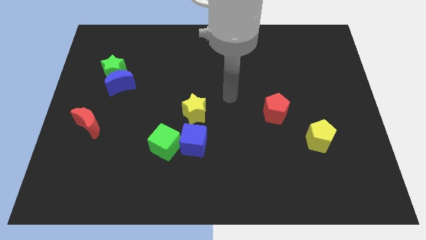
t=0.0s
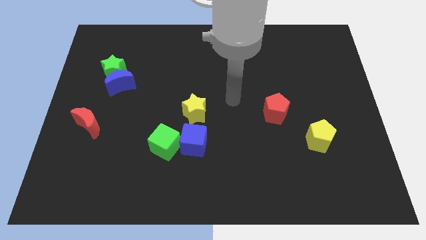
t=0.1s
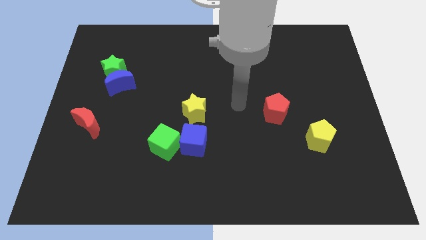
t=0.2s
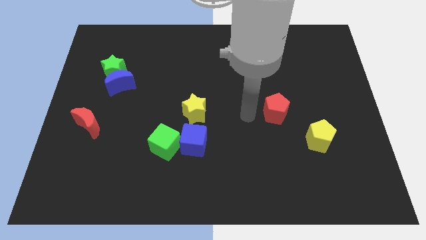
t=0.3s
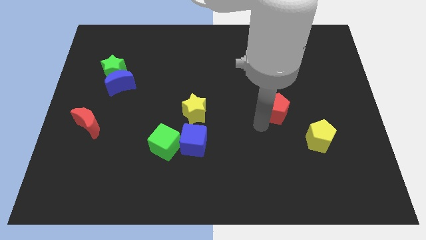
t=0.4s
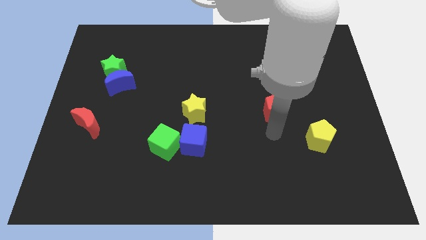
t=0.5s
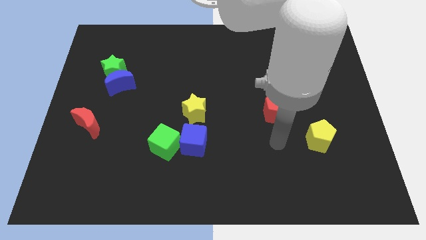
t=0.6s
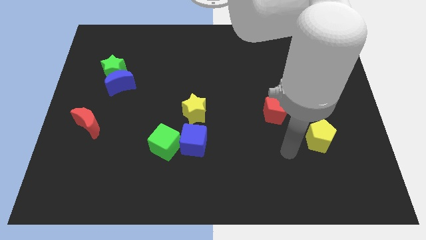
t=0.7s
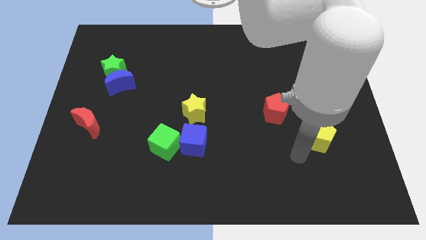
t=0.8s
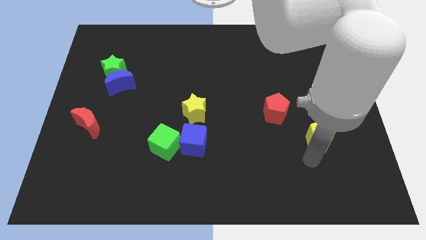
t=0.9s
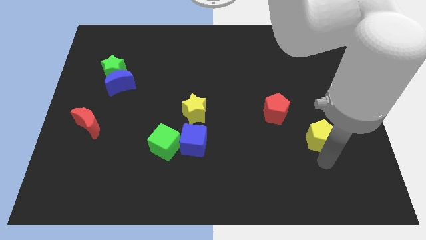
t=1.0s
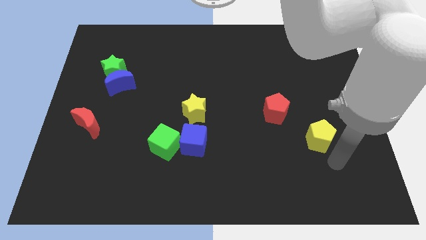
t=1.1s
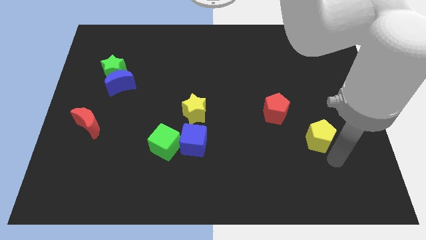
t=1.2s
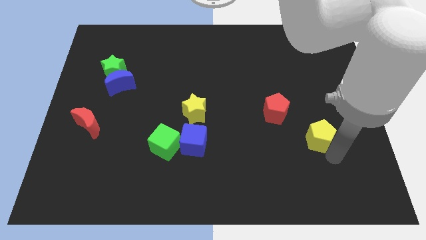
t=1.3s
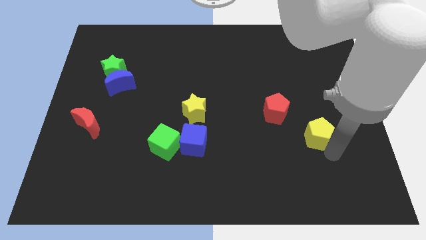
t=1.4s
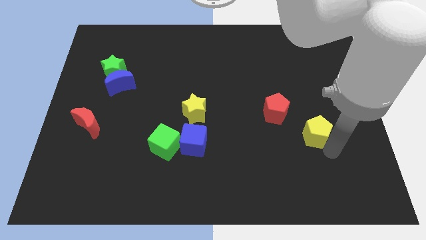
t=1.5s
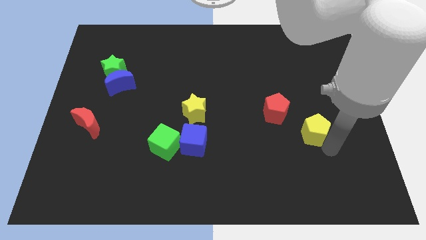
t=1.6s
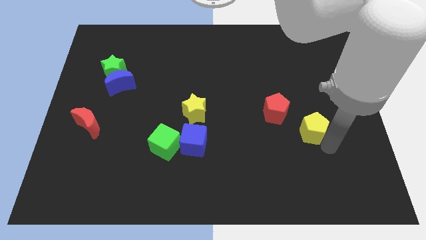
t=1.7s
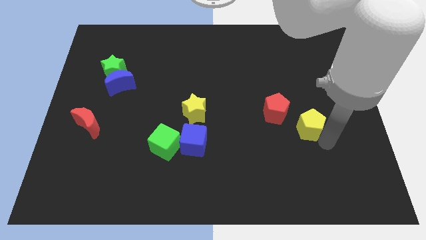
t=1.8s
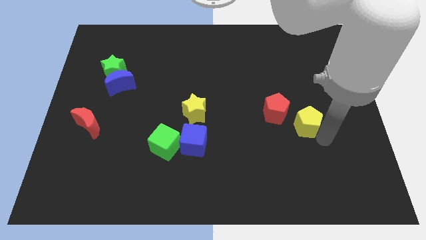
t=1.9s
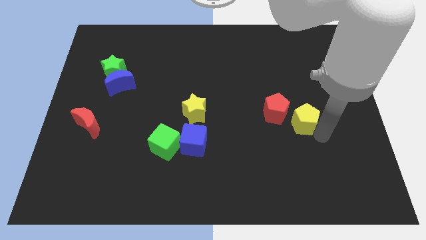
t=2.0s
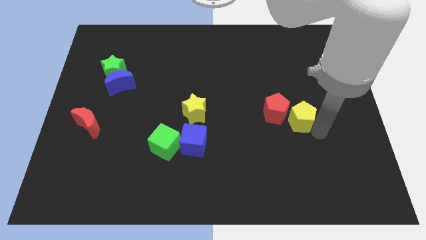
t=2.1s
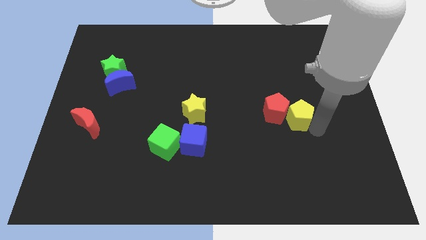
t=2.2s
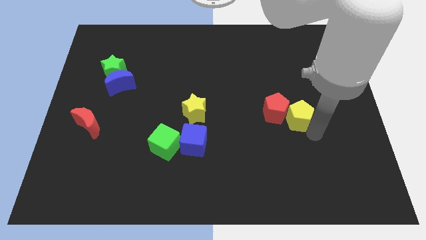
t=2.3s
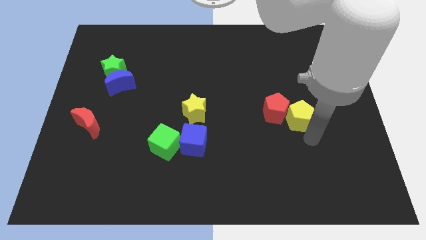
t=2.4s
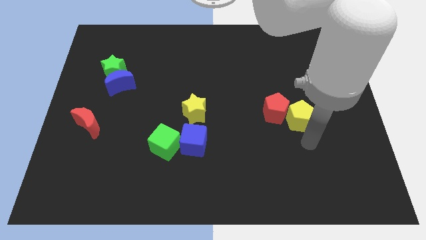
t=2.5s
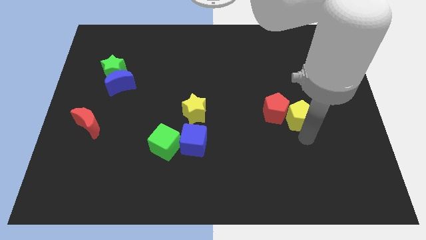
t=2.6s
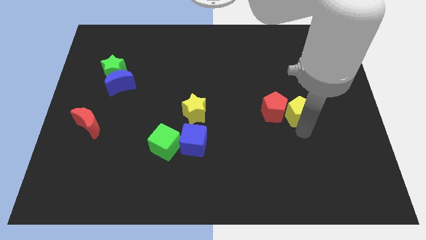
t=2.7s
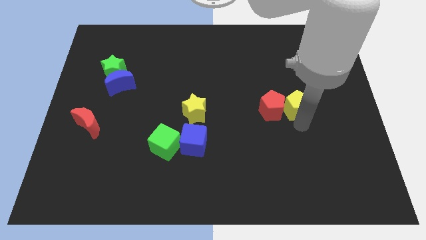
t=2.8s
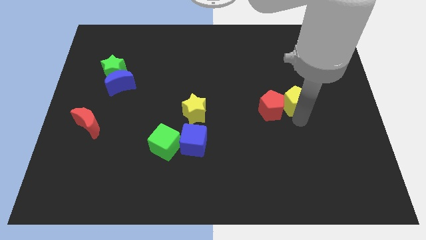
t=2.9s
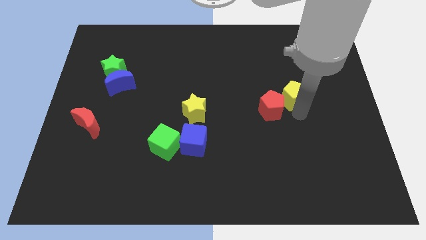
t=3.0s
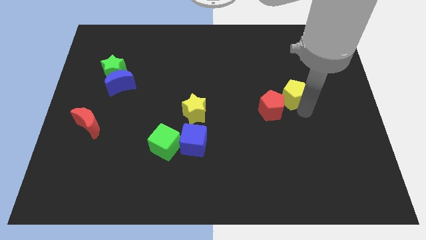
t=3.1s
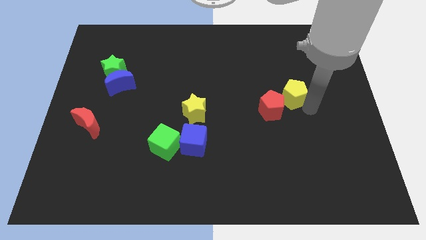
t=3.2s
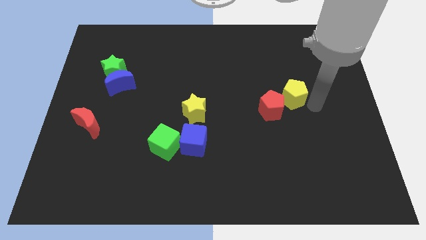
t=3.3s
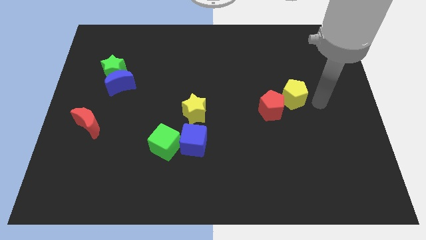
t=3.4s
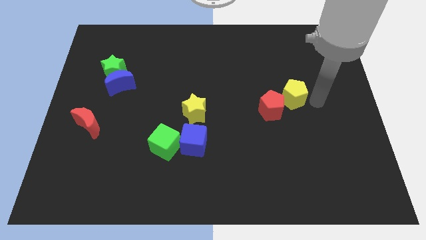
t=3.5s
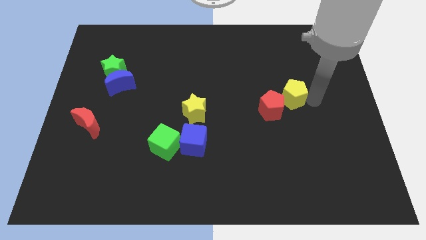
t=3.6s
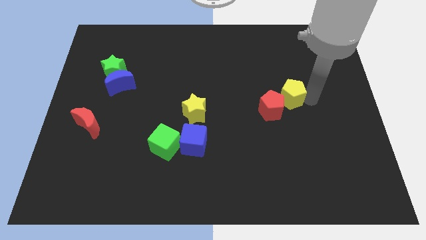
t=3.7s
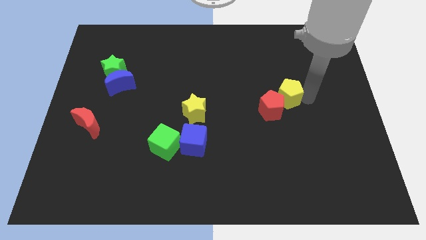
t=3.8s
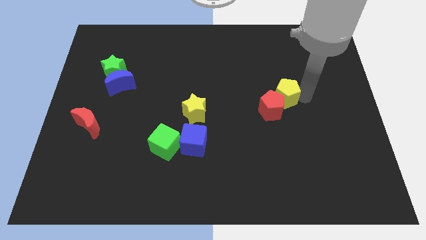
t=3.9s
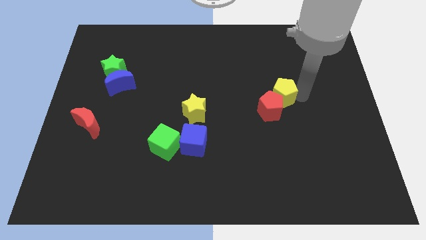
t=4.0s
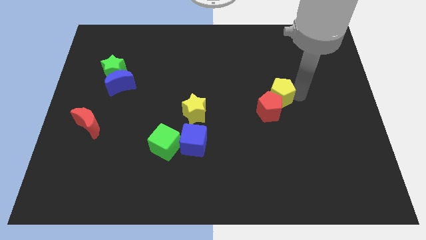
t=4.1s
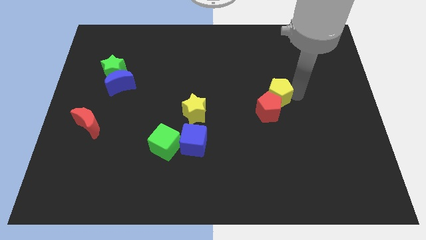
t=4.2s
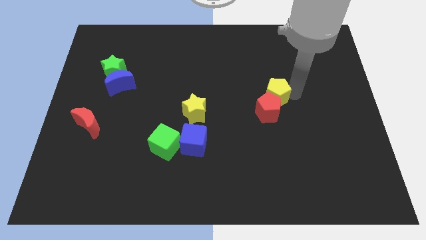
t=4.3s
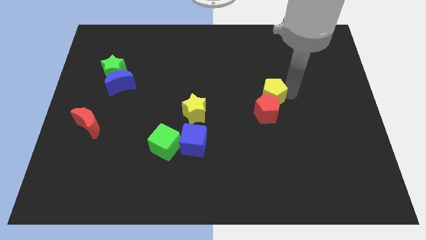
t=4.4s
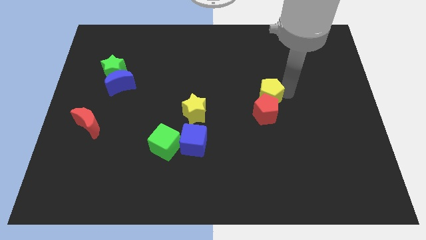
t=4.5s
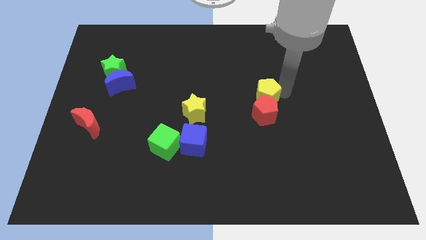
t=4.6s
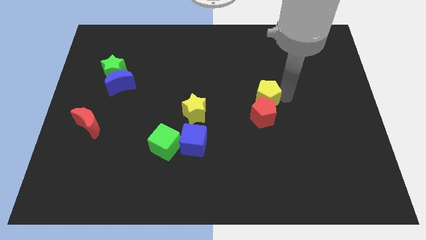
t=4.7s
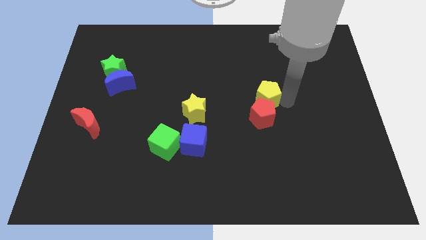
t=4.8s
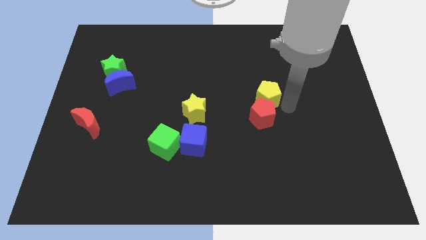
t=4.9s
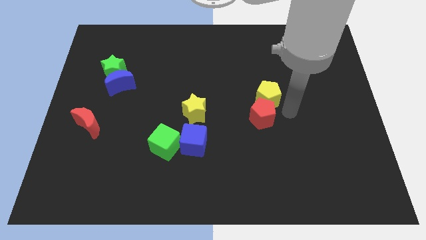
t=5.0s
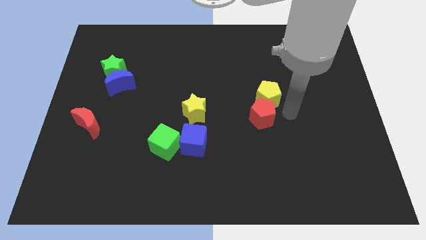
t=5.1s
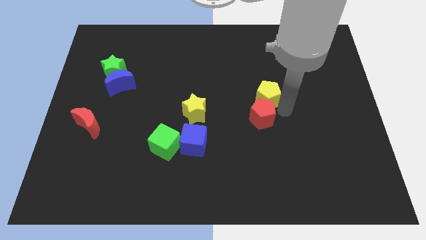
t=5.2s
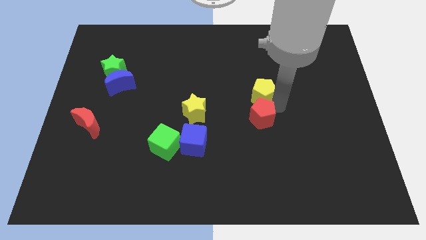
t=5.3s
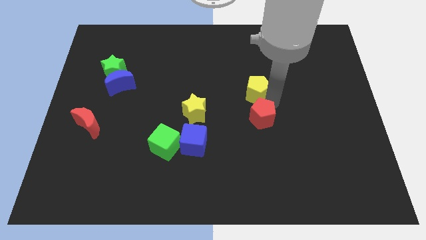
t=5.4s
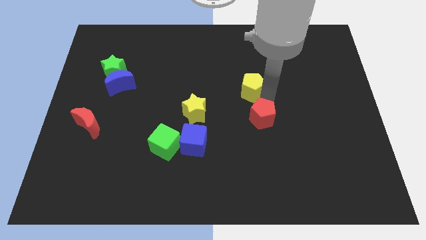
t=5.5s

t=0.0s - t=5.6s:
push the yellow pentagon upwards and to the left diagonally

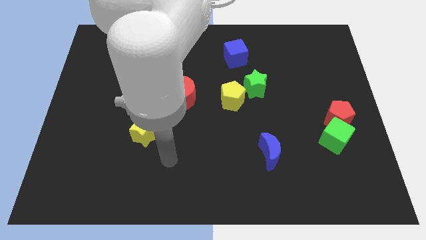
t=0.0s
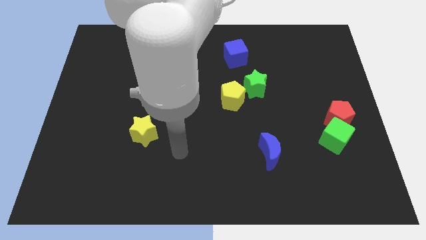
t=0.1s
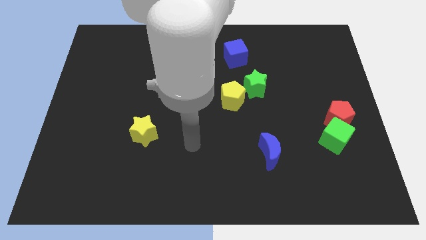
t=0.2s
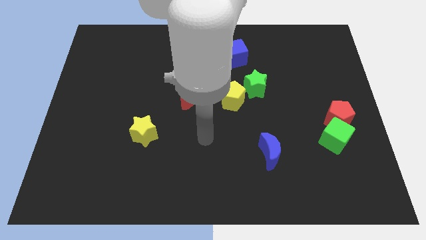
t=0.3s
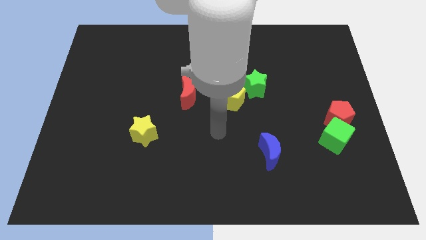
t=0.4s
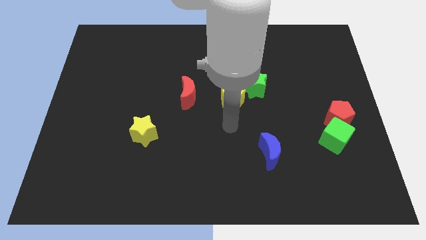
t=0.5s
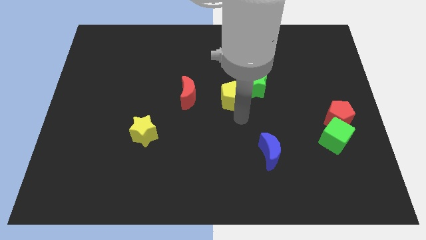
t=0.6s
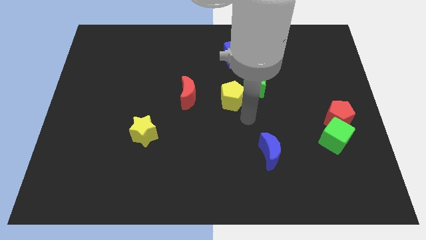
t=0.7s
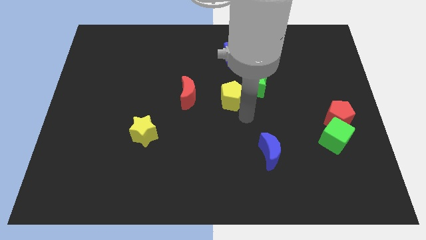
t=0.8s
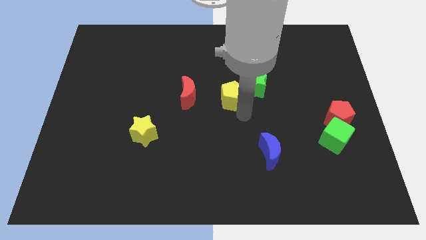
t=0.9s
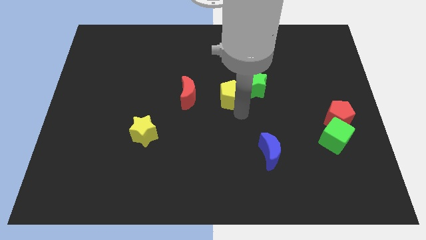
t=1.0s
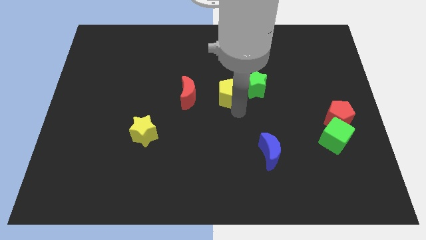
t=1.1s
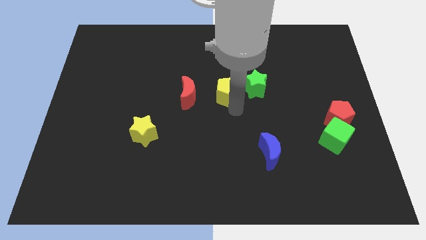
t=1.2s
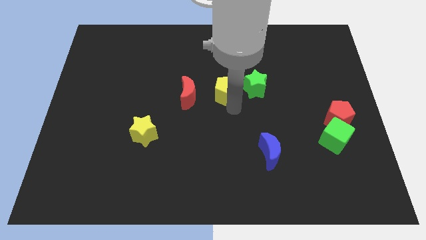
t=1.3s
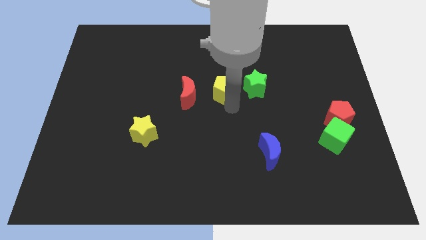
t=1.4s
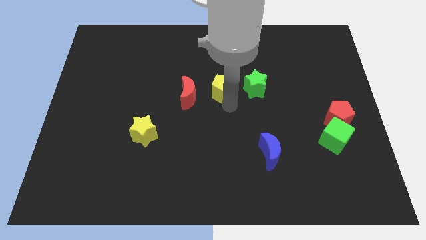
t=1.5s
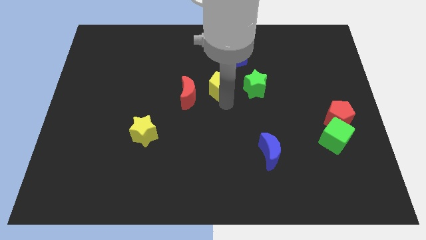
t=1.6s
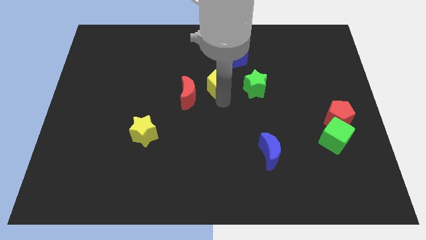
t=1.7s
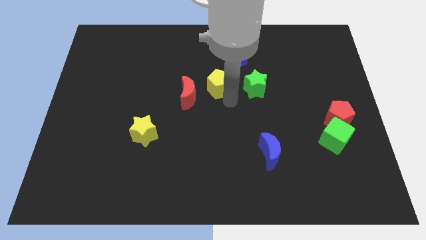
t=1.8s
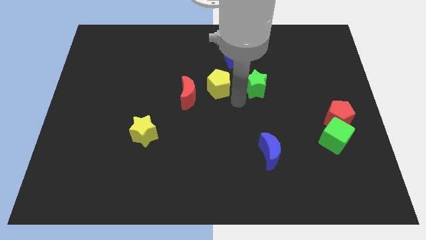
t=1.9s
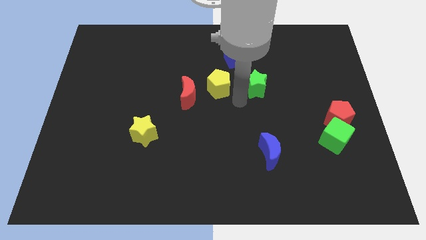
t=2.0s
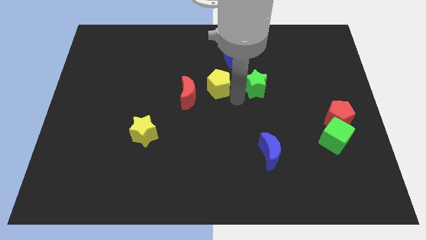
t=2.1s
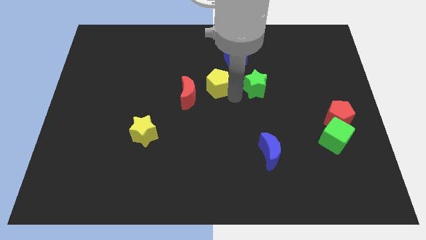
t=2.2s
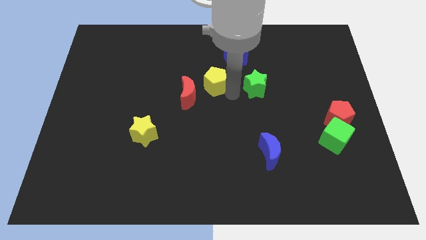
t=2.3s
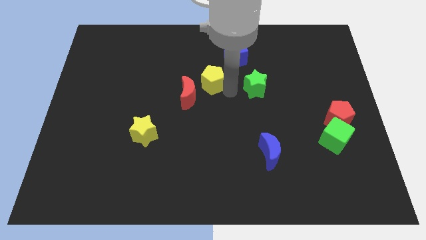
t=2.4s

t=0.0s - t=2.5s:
move the yellow pentagon slightly up and to the left diagonally
